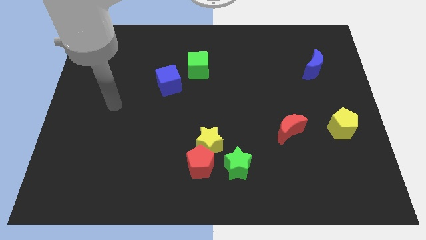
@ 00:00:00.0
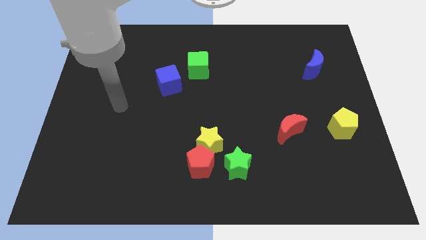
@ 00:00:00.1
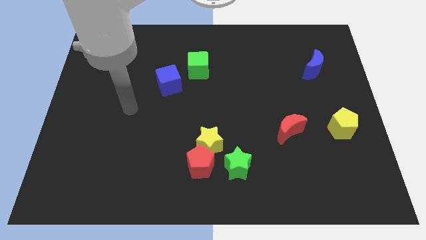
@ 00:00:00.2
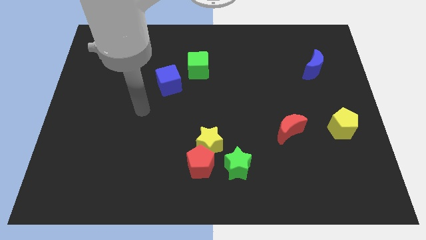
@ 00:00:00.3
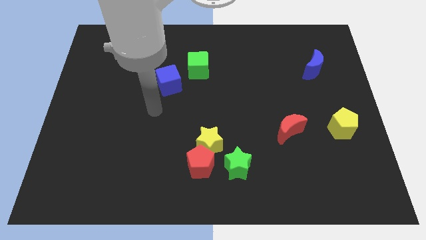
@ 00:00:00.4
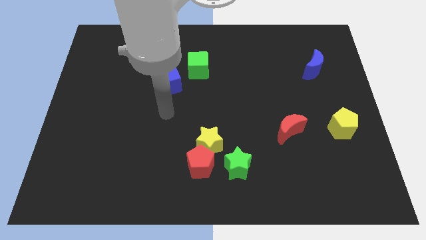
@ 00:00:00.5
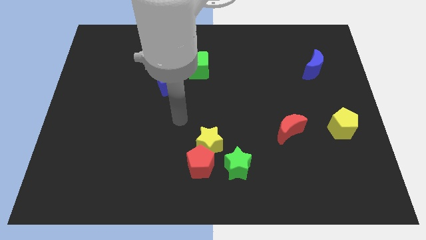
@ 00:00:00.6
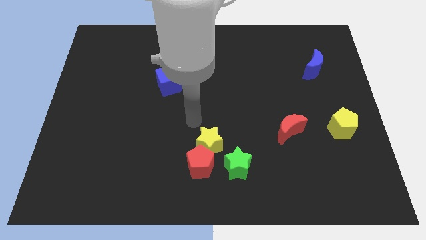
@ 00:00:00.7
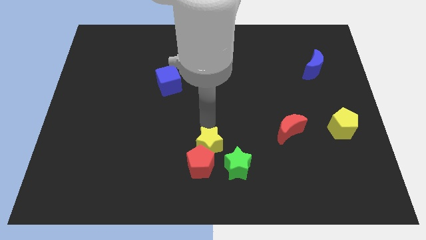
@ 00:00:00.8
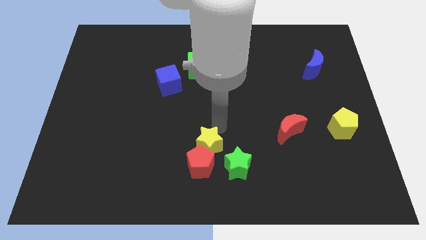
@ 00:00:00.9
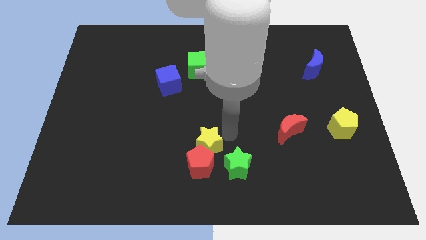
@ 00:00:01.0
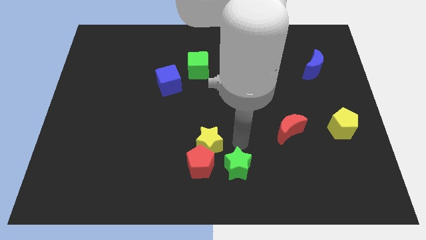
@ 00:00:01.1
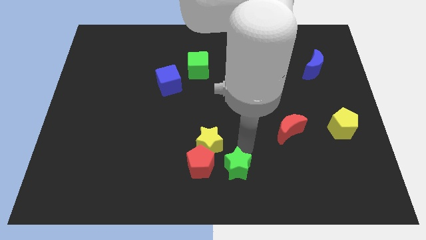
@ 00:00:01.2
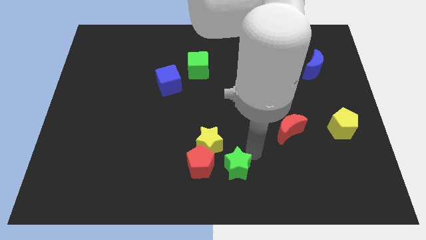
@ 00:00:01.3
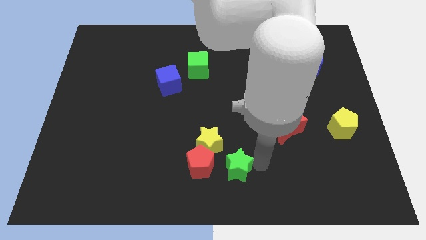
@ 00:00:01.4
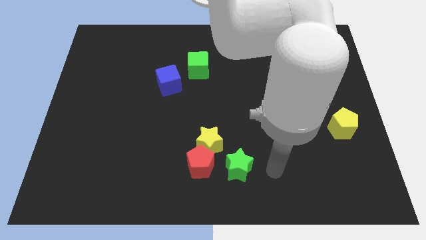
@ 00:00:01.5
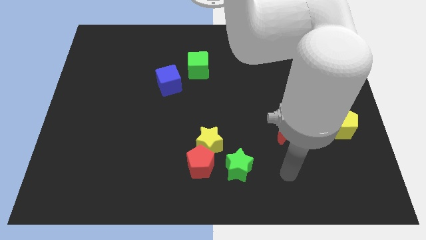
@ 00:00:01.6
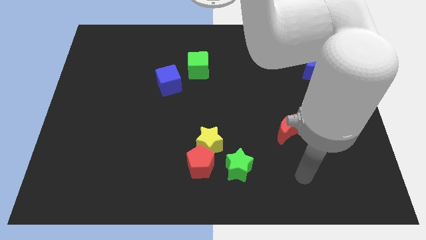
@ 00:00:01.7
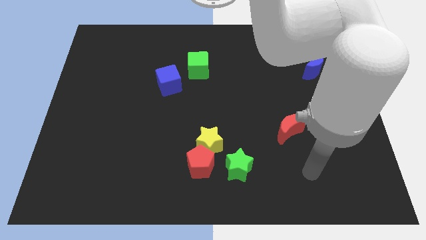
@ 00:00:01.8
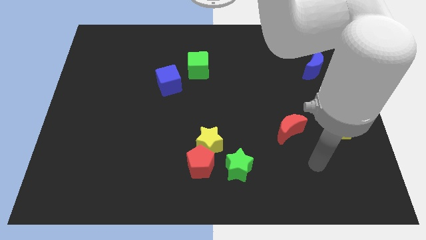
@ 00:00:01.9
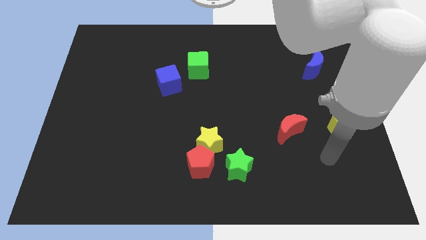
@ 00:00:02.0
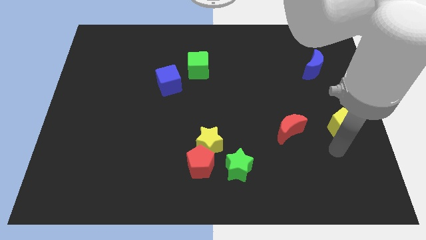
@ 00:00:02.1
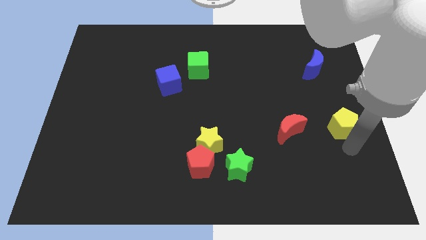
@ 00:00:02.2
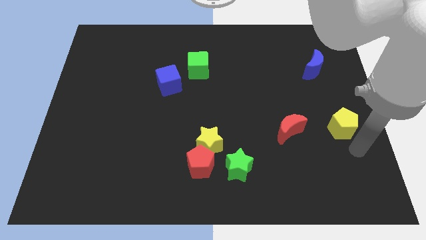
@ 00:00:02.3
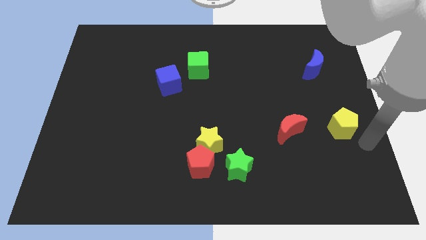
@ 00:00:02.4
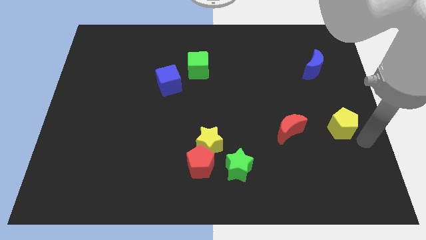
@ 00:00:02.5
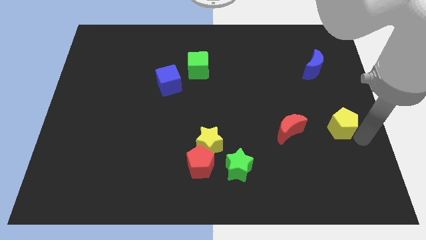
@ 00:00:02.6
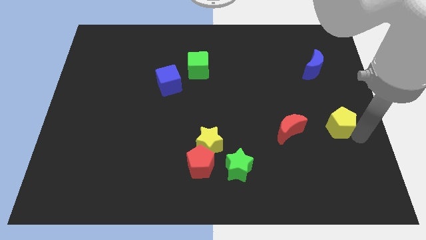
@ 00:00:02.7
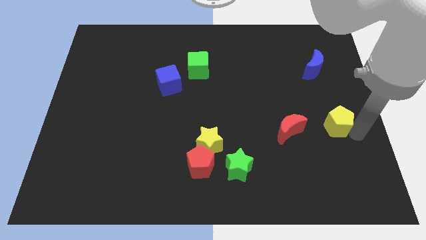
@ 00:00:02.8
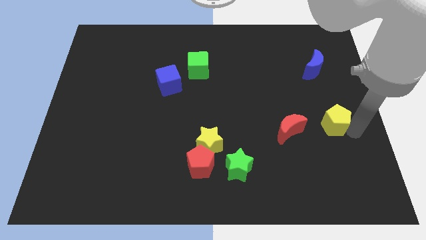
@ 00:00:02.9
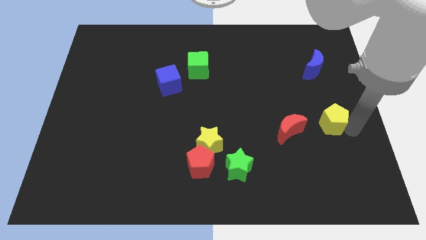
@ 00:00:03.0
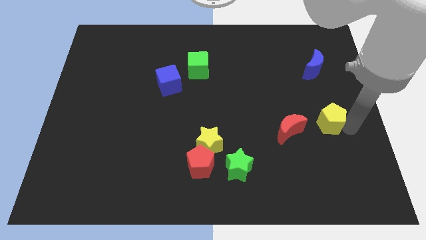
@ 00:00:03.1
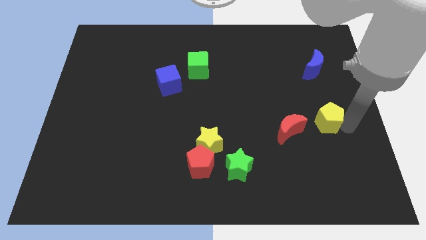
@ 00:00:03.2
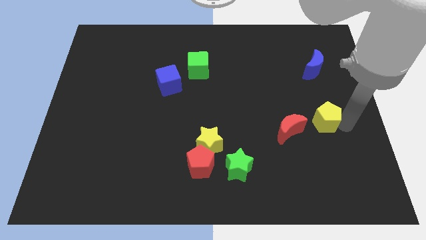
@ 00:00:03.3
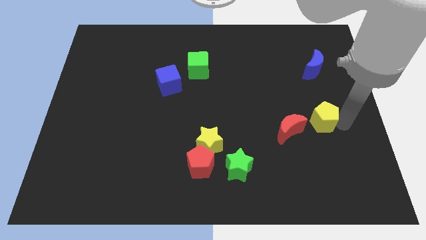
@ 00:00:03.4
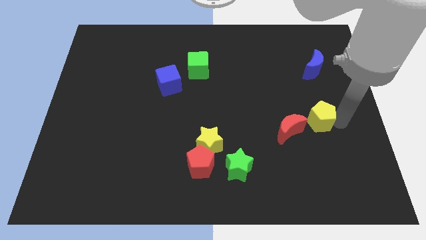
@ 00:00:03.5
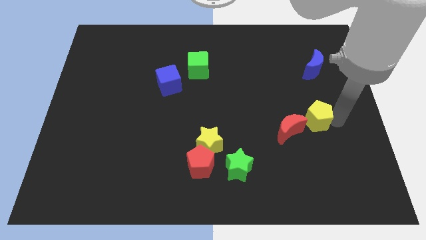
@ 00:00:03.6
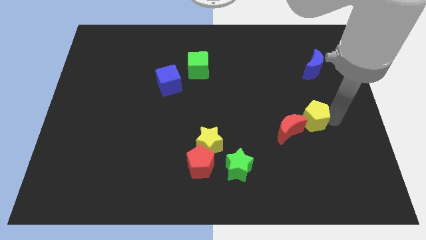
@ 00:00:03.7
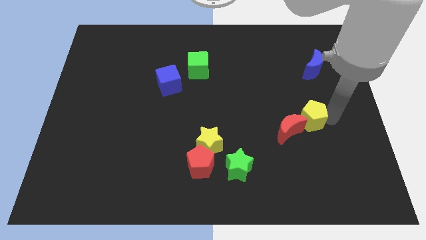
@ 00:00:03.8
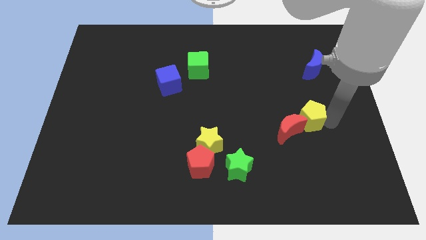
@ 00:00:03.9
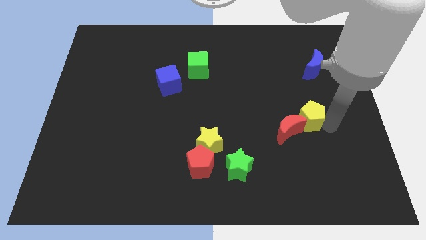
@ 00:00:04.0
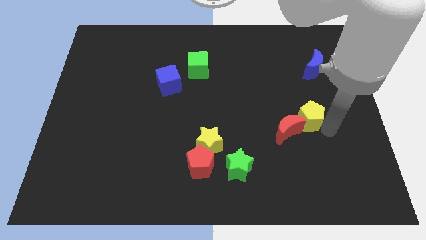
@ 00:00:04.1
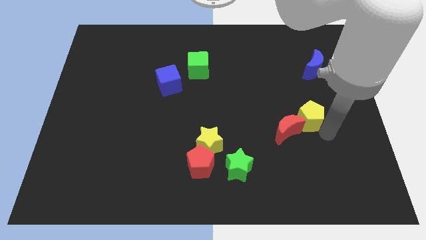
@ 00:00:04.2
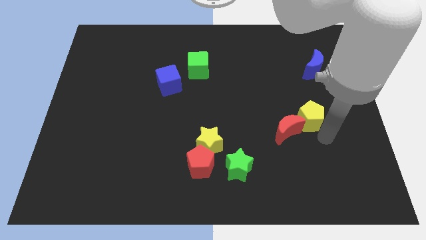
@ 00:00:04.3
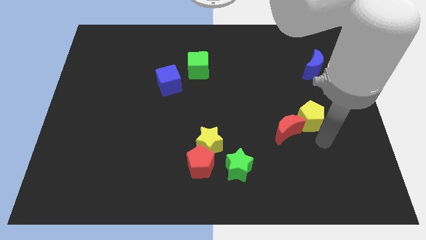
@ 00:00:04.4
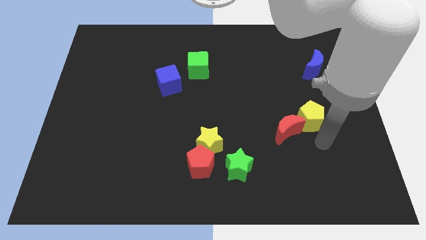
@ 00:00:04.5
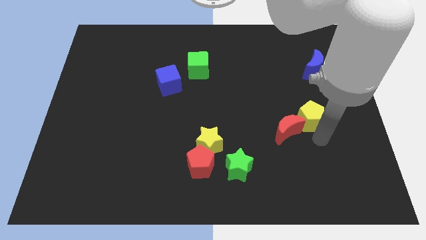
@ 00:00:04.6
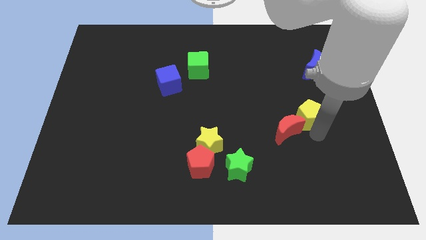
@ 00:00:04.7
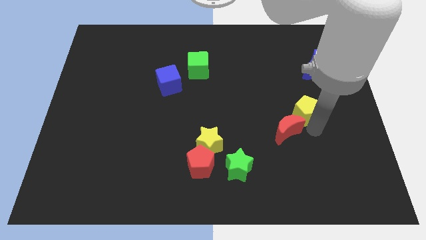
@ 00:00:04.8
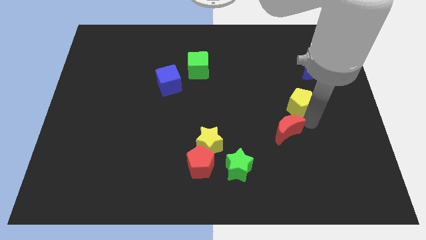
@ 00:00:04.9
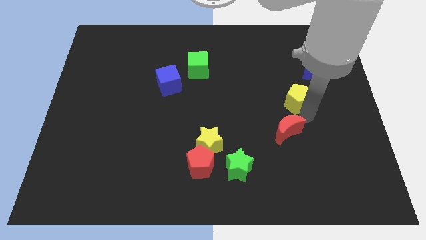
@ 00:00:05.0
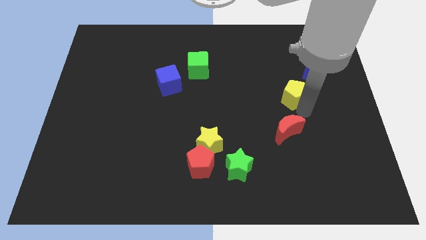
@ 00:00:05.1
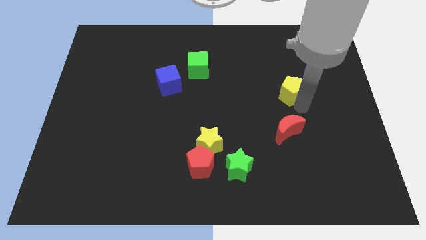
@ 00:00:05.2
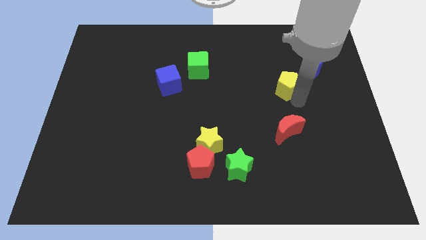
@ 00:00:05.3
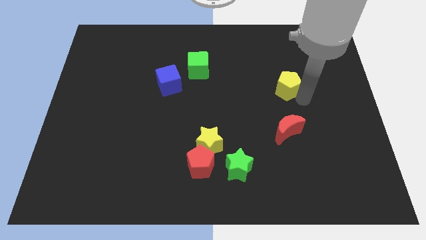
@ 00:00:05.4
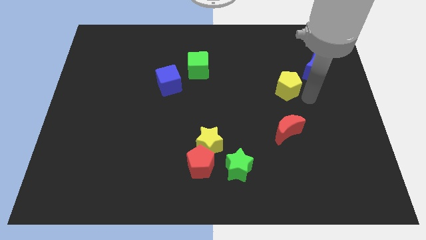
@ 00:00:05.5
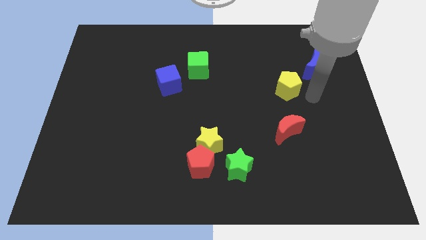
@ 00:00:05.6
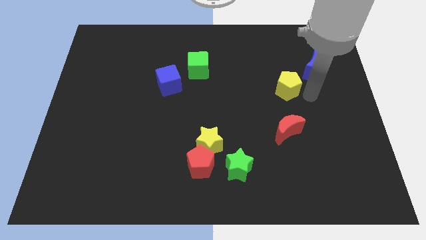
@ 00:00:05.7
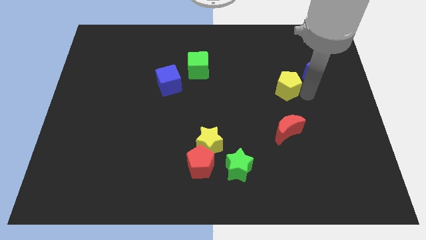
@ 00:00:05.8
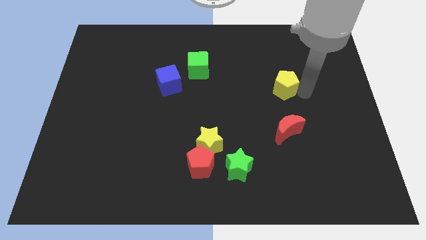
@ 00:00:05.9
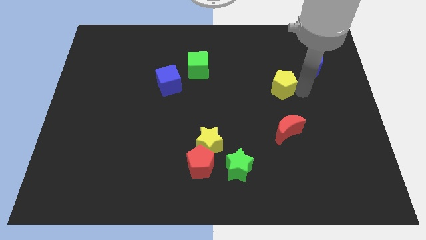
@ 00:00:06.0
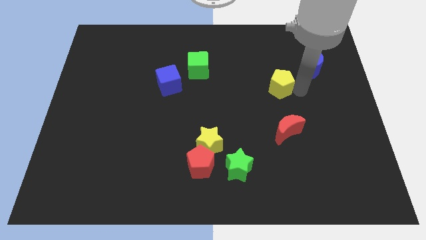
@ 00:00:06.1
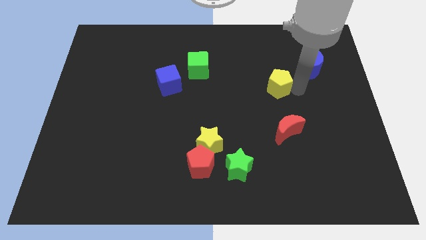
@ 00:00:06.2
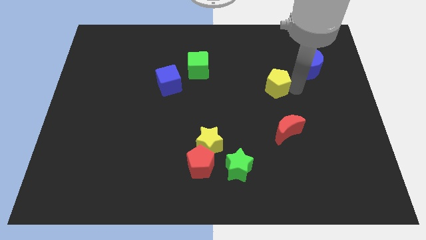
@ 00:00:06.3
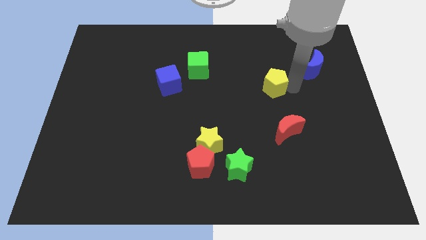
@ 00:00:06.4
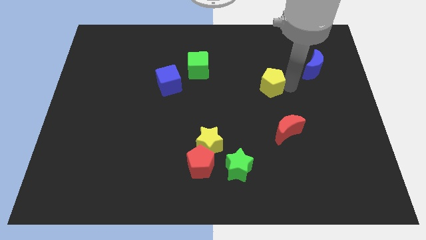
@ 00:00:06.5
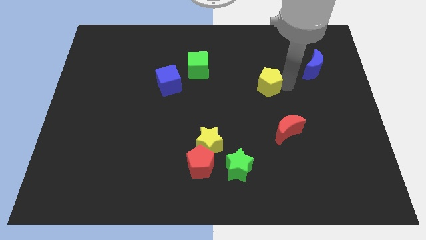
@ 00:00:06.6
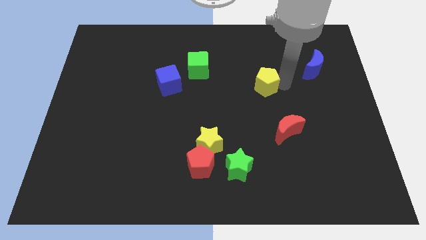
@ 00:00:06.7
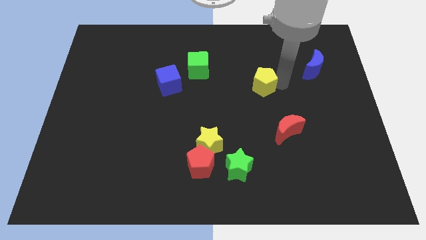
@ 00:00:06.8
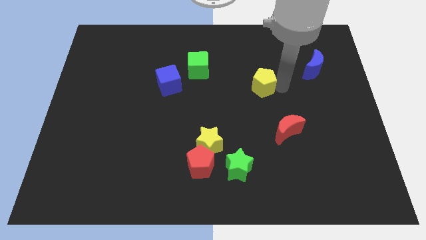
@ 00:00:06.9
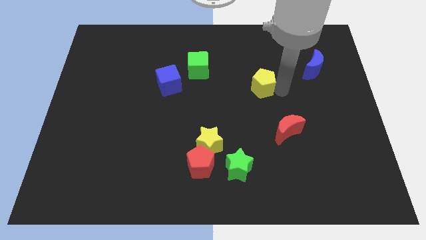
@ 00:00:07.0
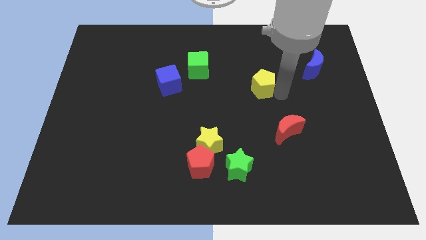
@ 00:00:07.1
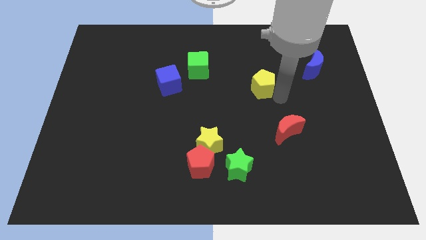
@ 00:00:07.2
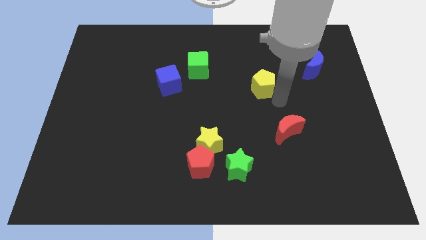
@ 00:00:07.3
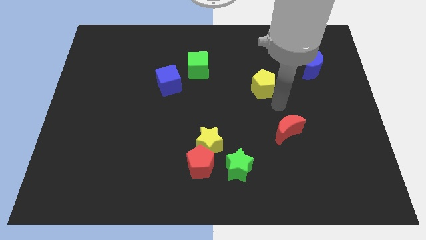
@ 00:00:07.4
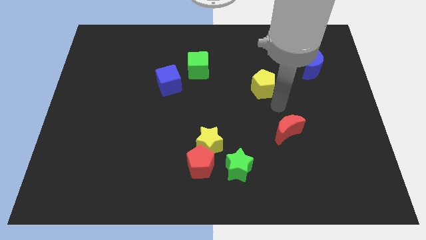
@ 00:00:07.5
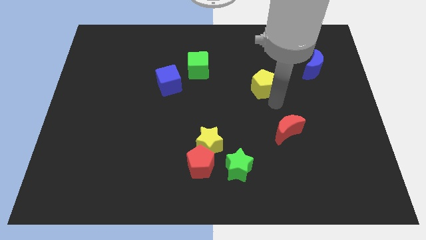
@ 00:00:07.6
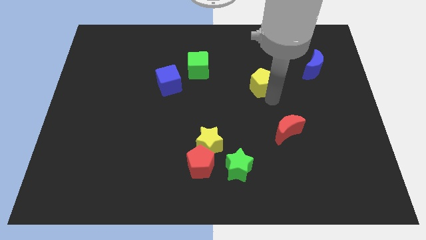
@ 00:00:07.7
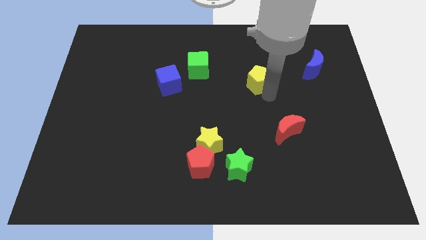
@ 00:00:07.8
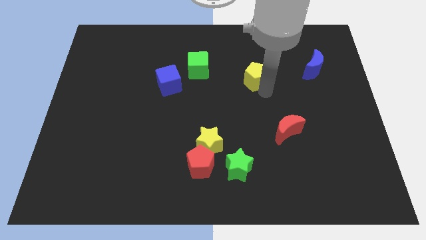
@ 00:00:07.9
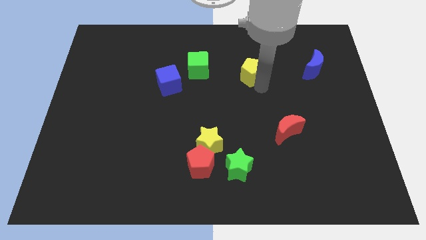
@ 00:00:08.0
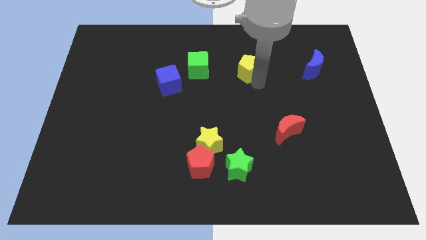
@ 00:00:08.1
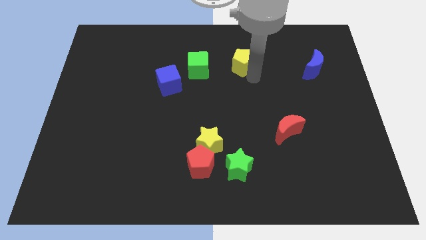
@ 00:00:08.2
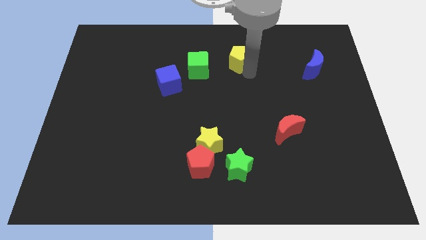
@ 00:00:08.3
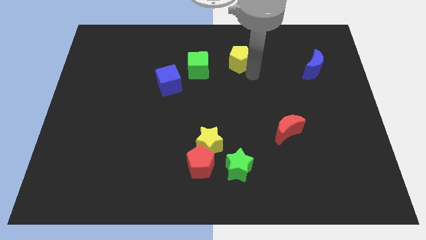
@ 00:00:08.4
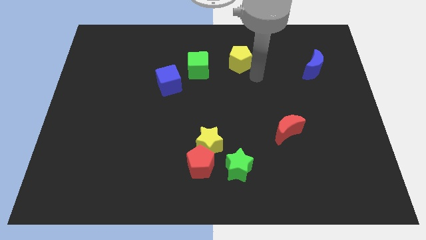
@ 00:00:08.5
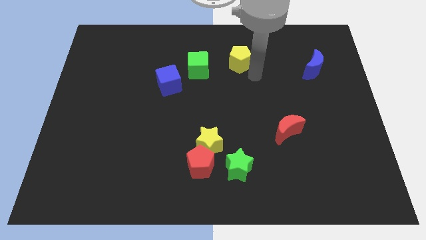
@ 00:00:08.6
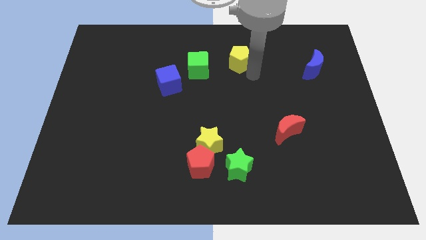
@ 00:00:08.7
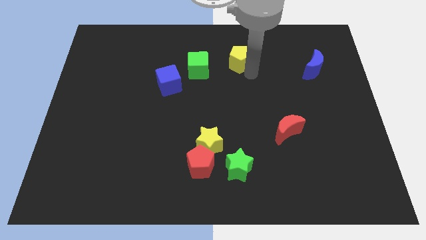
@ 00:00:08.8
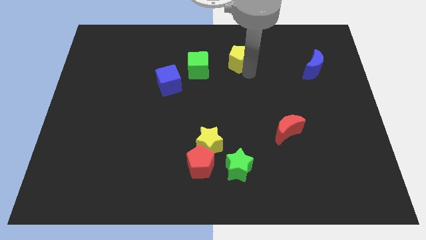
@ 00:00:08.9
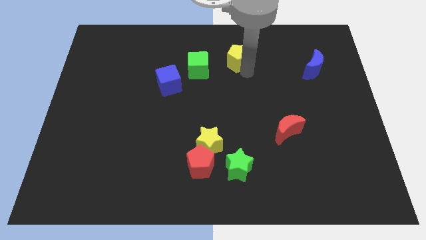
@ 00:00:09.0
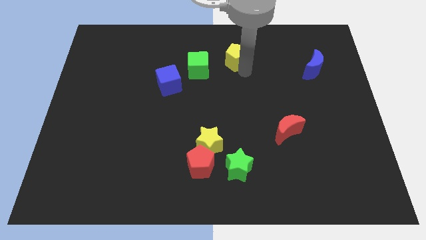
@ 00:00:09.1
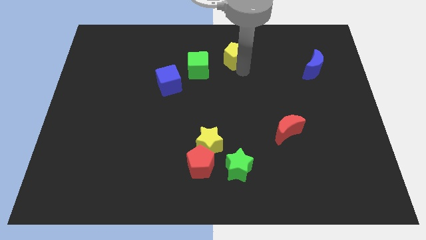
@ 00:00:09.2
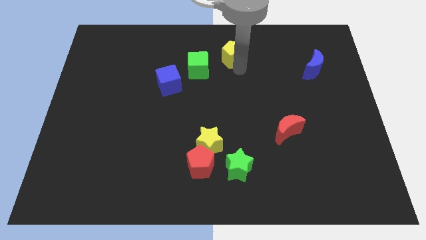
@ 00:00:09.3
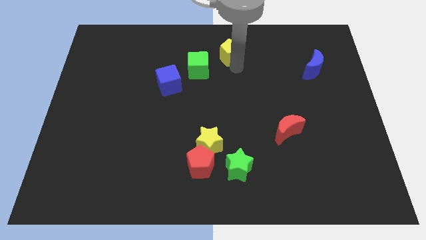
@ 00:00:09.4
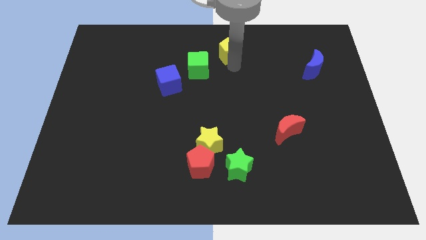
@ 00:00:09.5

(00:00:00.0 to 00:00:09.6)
put the yellow pentagon to the top
